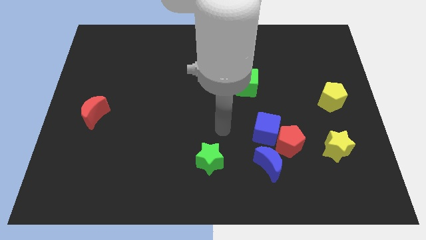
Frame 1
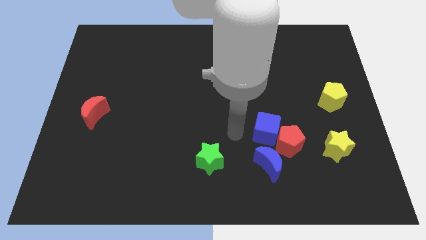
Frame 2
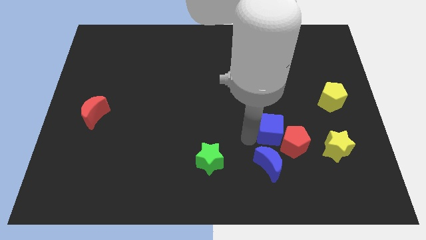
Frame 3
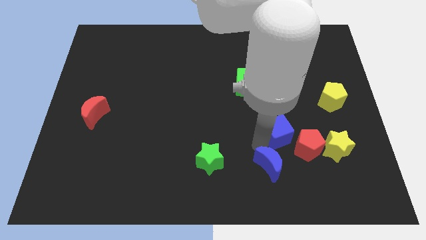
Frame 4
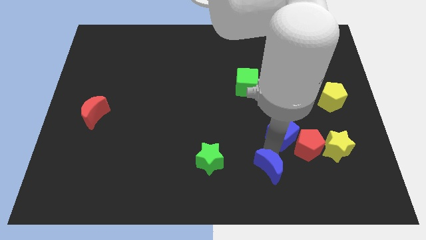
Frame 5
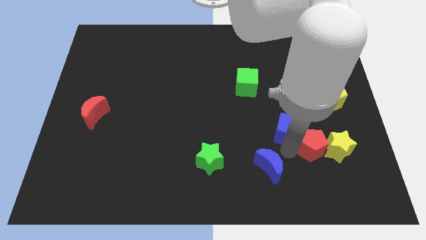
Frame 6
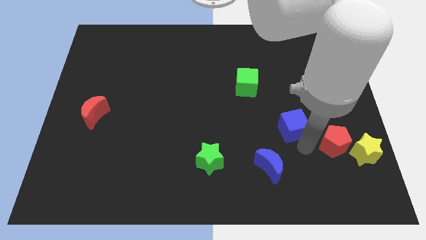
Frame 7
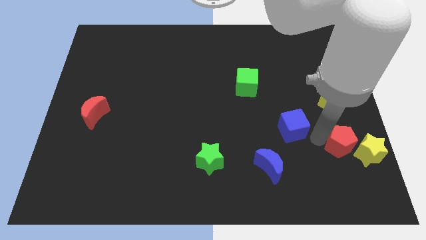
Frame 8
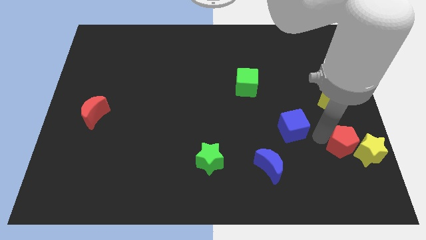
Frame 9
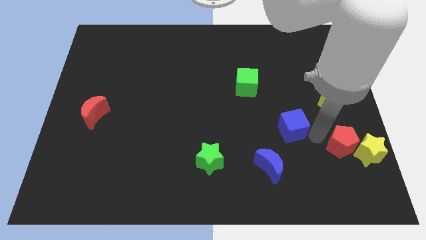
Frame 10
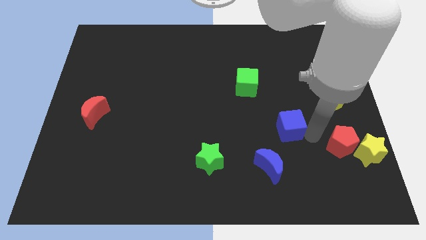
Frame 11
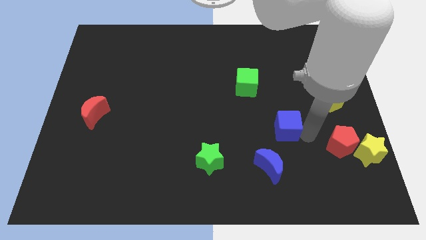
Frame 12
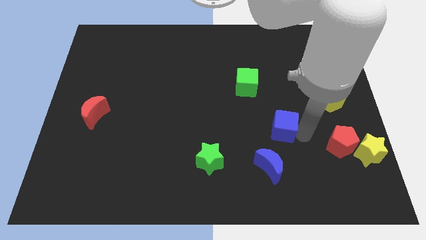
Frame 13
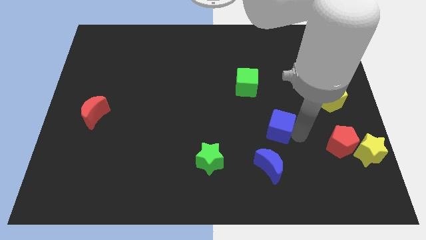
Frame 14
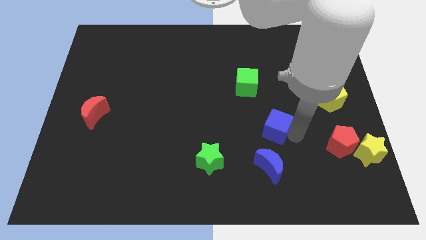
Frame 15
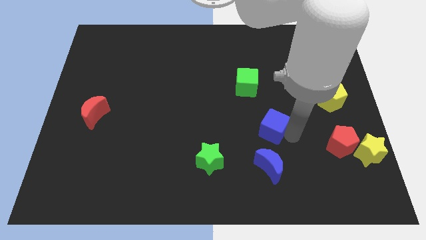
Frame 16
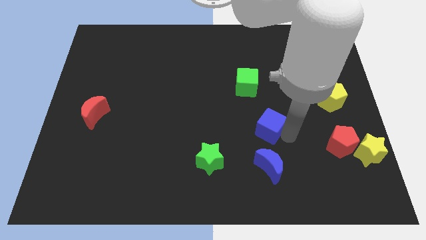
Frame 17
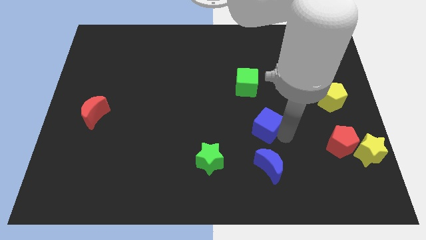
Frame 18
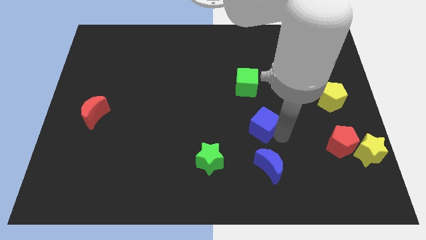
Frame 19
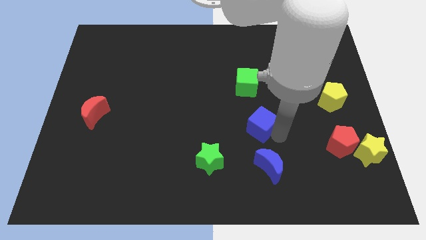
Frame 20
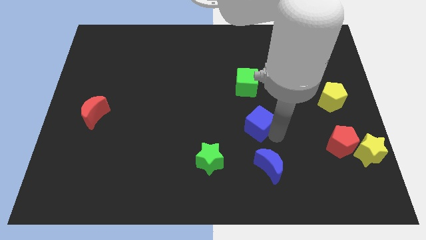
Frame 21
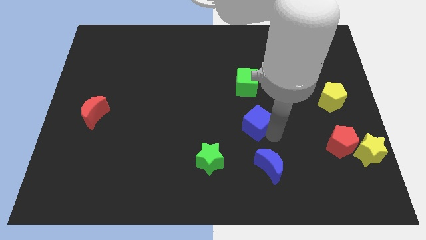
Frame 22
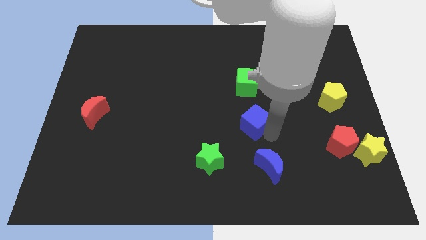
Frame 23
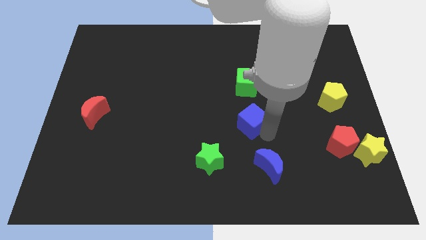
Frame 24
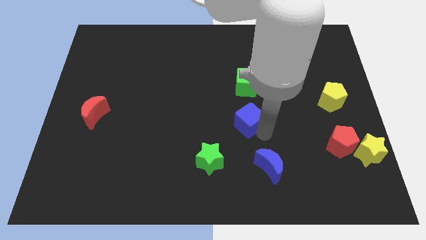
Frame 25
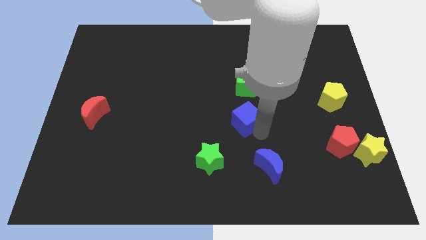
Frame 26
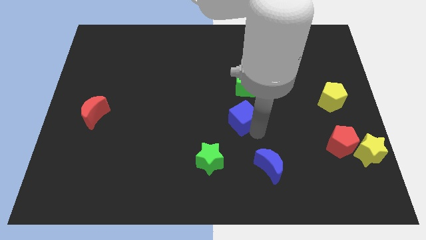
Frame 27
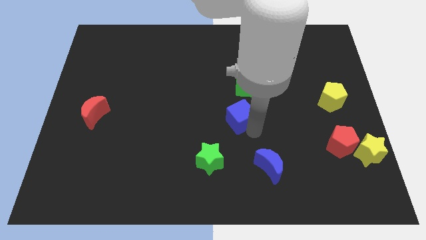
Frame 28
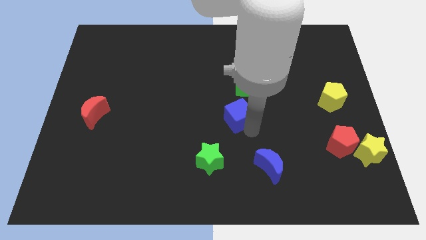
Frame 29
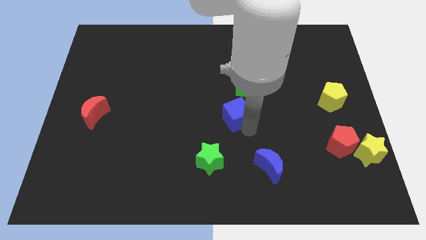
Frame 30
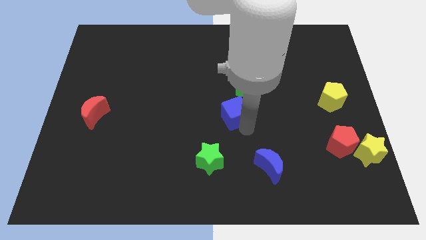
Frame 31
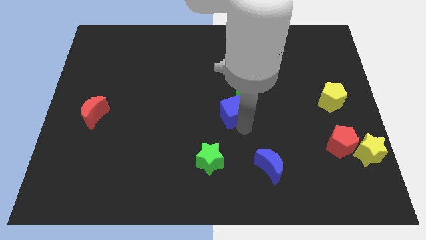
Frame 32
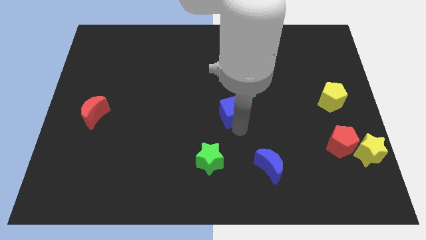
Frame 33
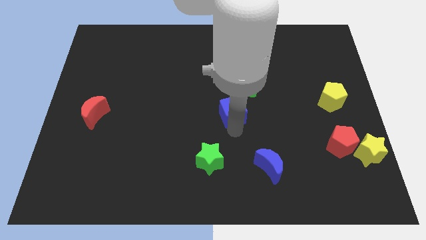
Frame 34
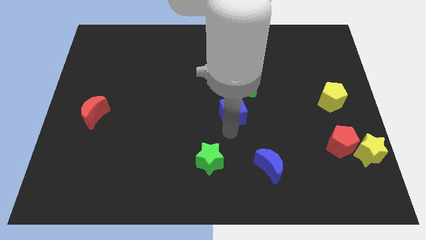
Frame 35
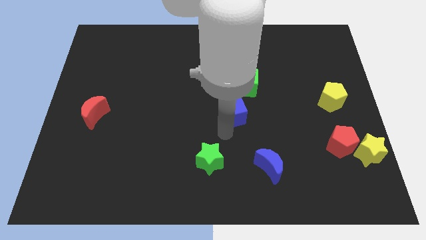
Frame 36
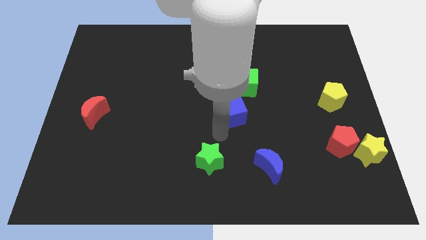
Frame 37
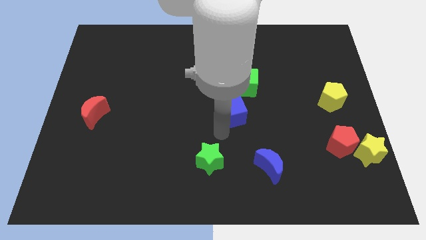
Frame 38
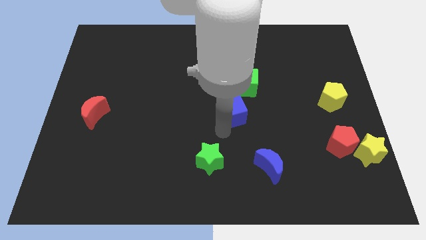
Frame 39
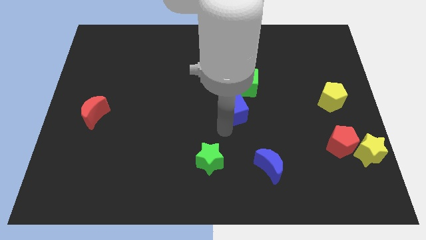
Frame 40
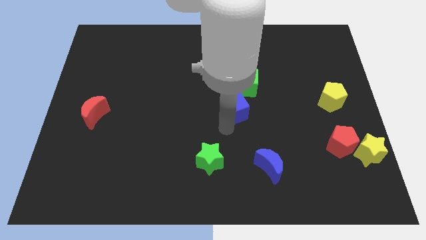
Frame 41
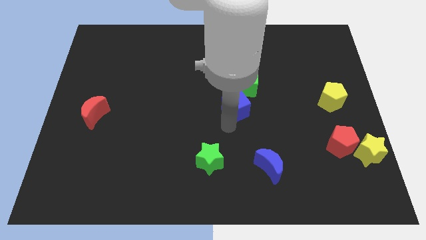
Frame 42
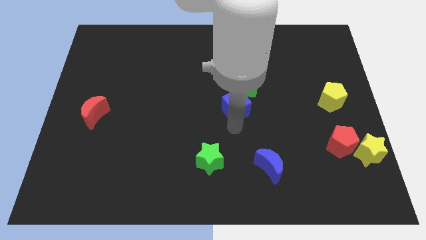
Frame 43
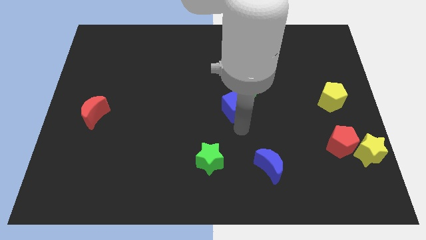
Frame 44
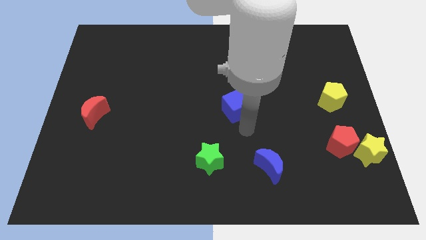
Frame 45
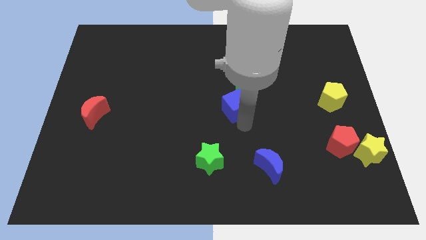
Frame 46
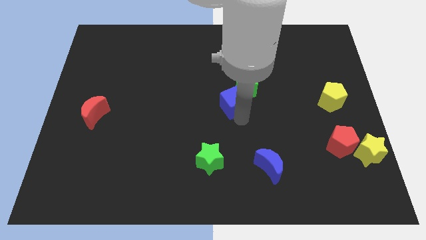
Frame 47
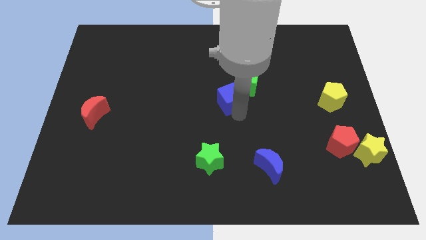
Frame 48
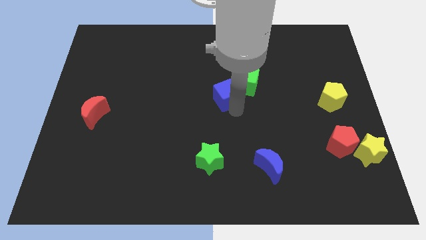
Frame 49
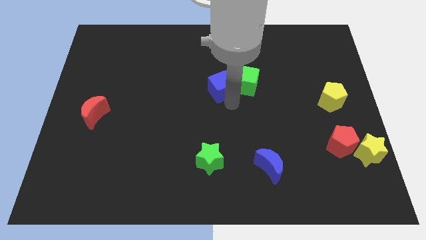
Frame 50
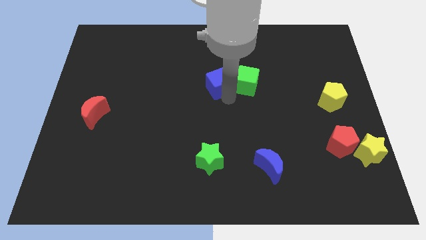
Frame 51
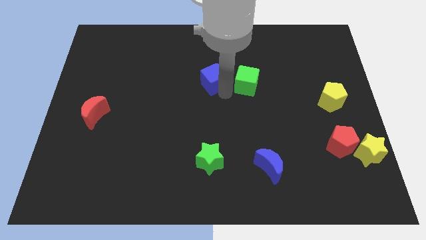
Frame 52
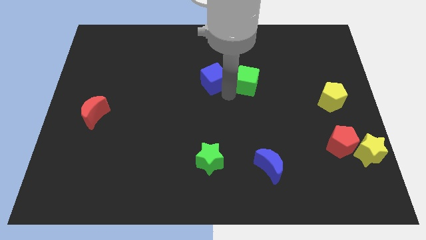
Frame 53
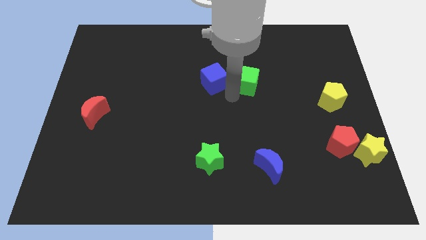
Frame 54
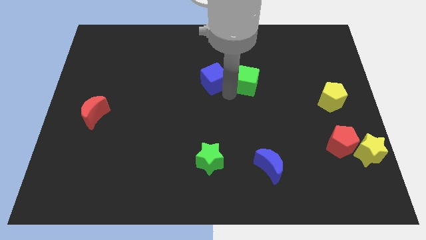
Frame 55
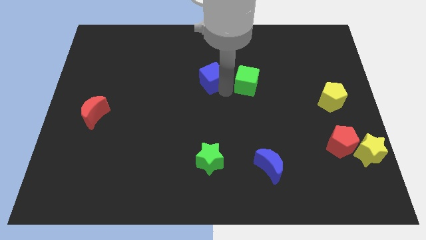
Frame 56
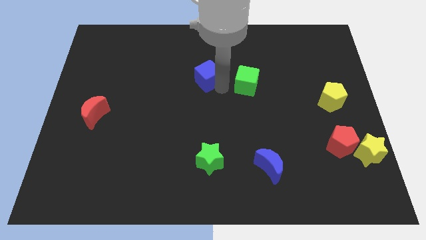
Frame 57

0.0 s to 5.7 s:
push the blue cube diagonally up and to the left

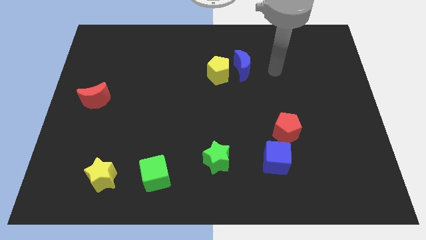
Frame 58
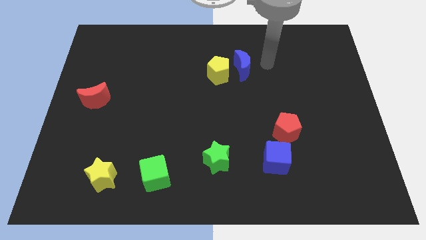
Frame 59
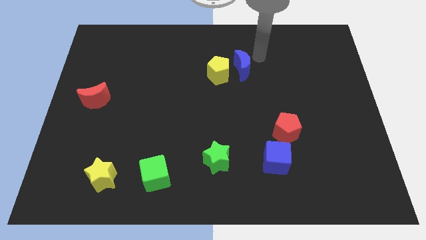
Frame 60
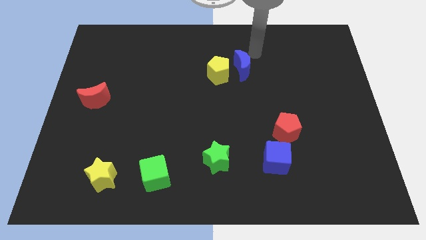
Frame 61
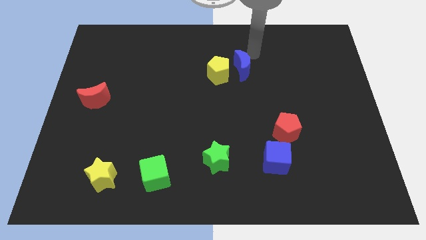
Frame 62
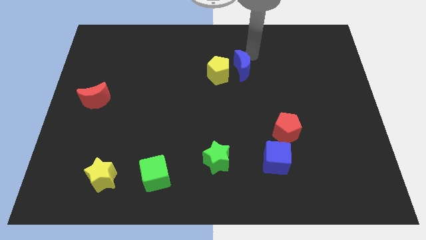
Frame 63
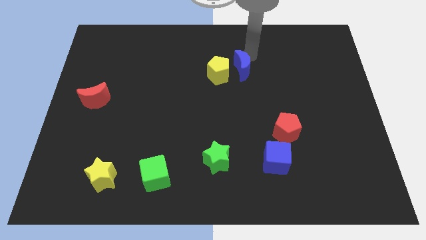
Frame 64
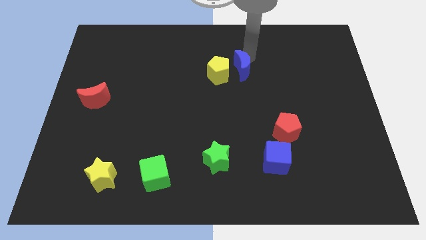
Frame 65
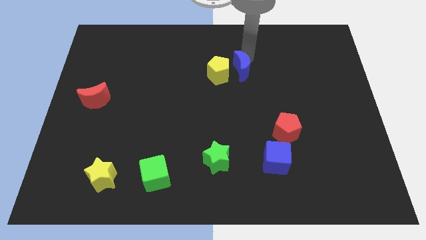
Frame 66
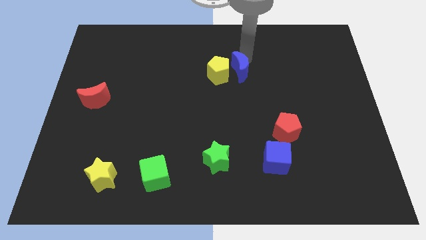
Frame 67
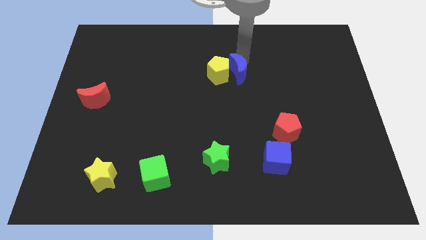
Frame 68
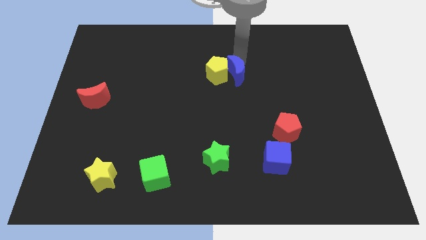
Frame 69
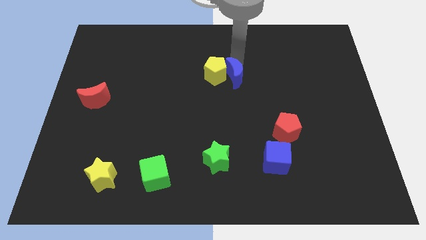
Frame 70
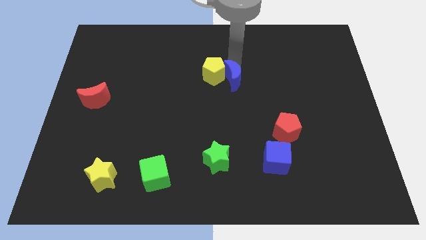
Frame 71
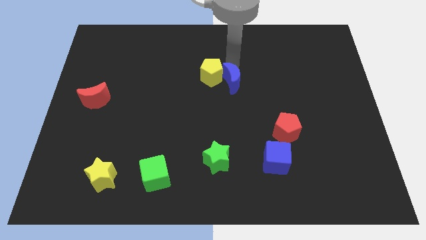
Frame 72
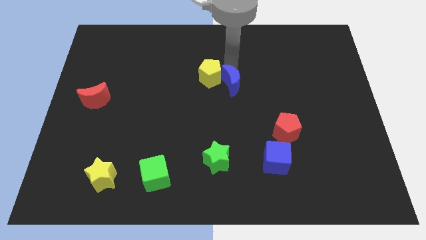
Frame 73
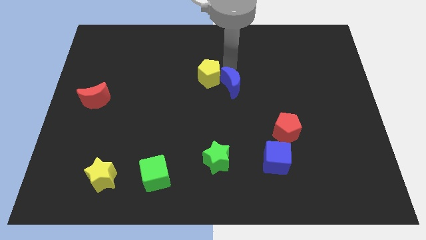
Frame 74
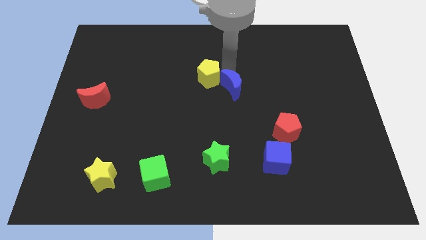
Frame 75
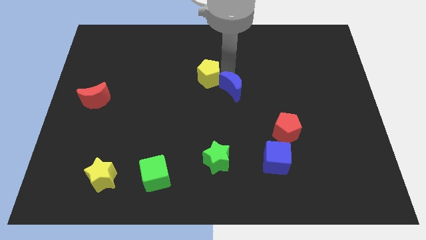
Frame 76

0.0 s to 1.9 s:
move the blue moon a little down and to the left diagonally

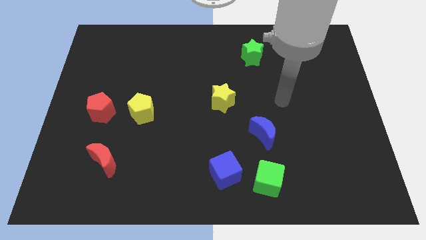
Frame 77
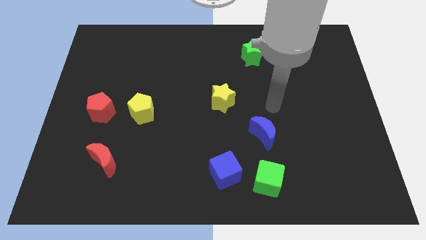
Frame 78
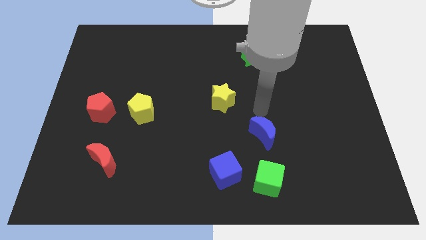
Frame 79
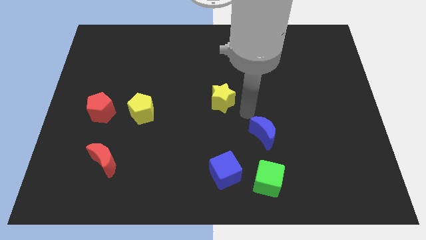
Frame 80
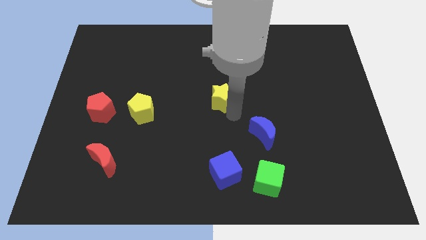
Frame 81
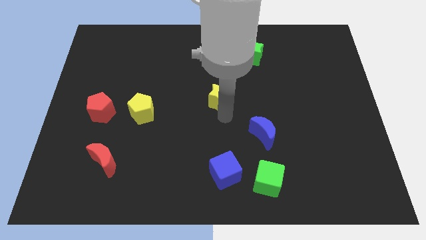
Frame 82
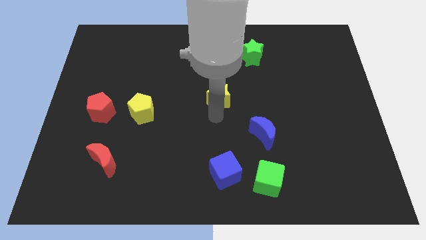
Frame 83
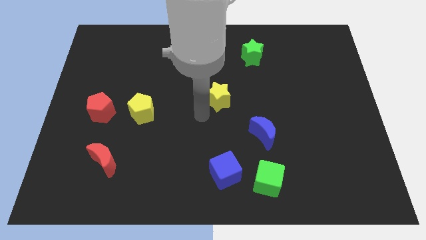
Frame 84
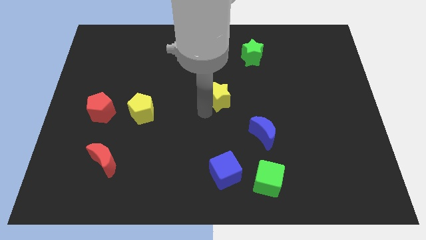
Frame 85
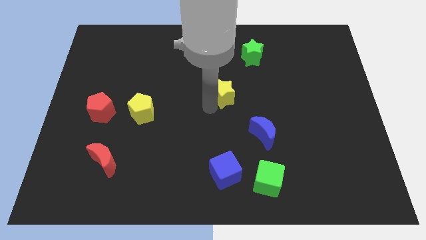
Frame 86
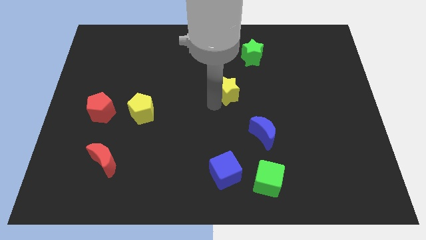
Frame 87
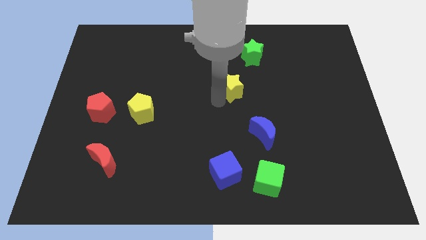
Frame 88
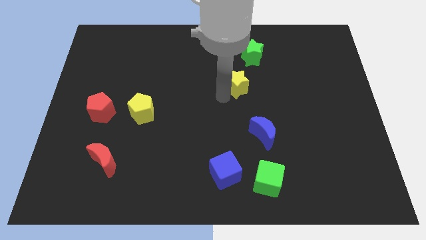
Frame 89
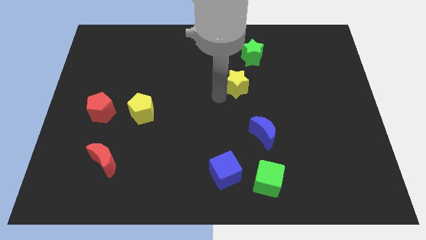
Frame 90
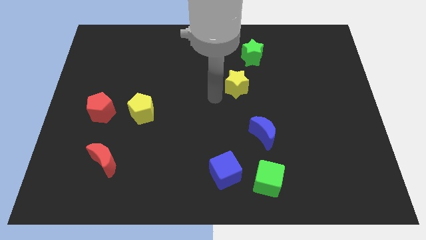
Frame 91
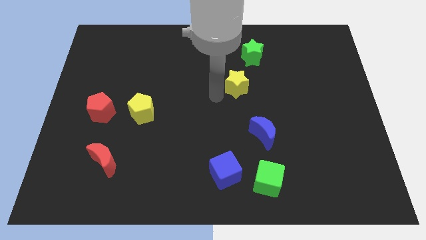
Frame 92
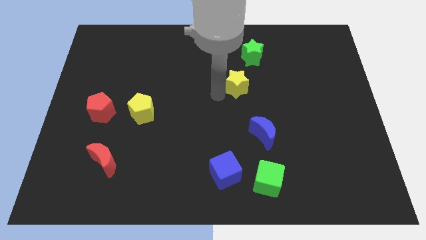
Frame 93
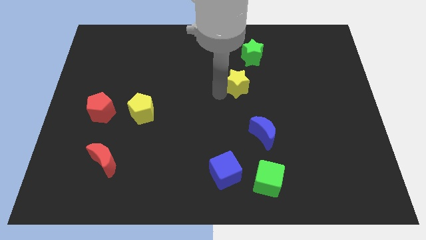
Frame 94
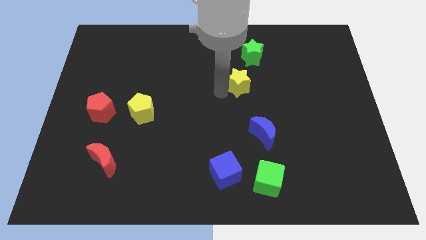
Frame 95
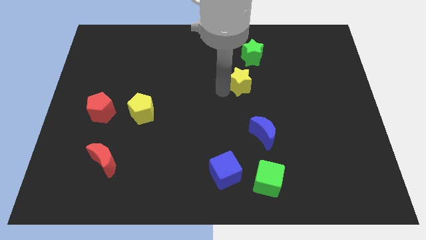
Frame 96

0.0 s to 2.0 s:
push the yellow star a bit up and right
